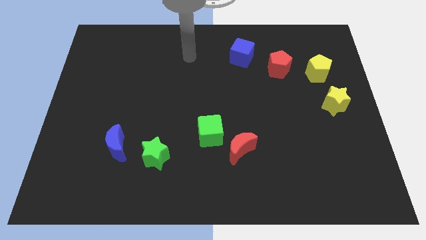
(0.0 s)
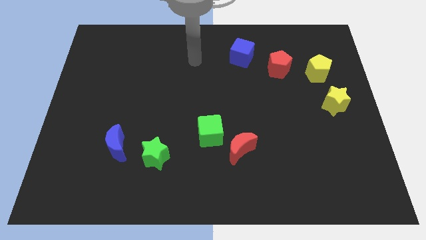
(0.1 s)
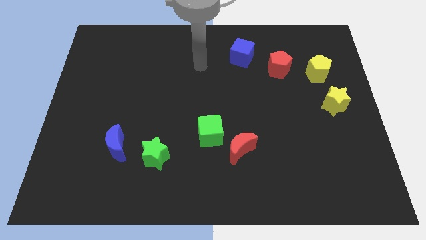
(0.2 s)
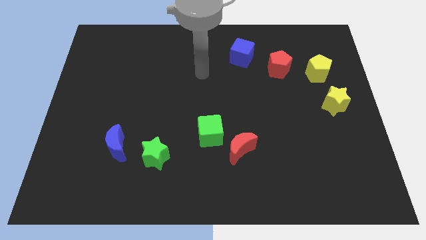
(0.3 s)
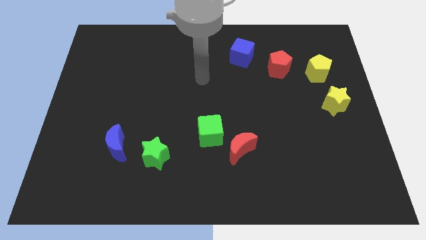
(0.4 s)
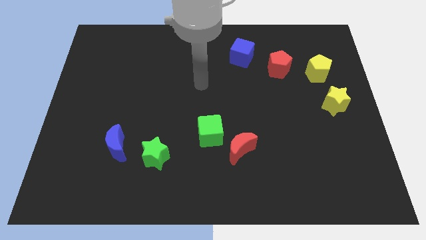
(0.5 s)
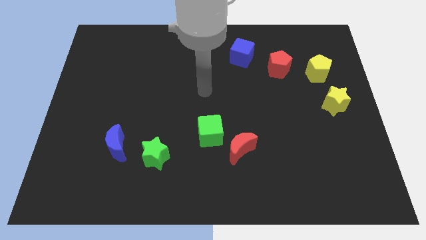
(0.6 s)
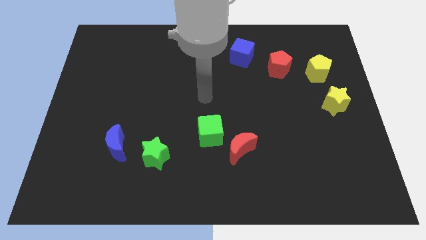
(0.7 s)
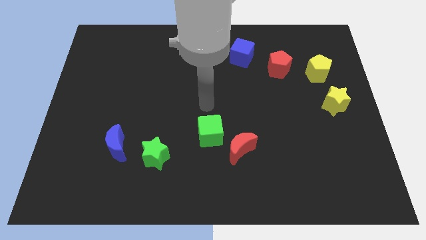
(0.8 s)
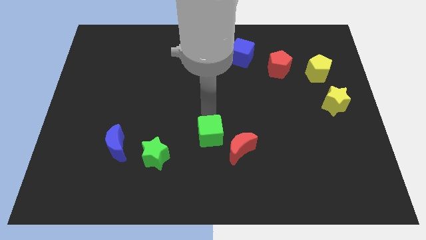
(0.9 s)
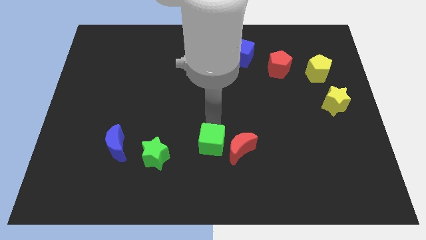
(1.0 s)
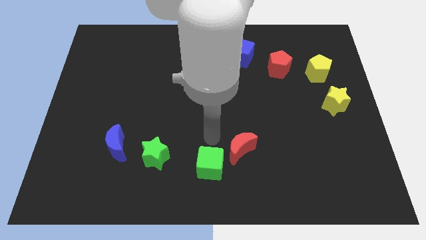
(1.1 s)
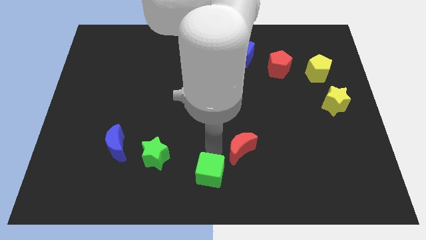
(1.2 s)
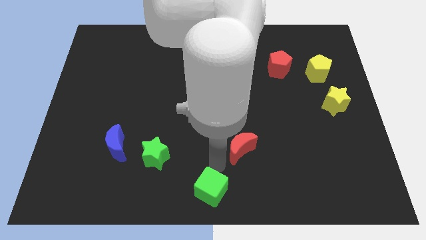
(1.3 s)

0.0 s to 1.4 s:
move the red moon away from the green cube

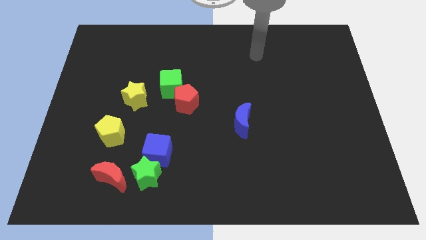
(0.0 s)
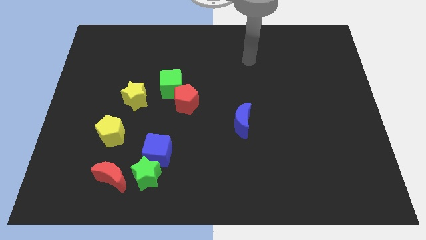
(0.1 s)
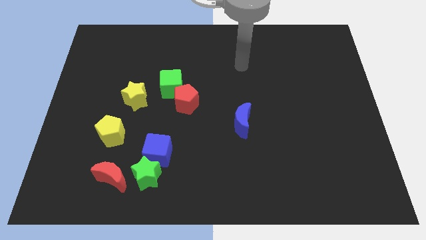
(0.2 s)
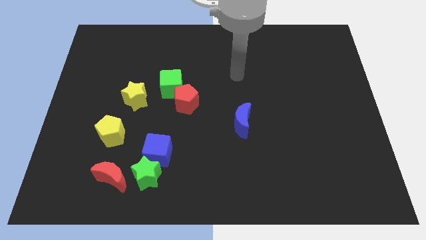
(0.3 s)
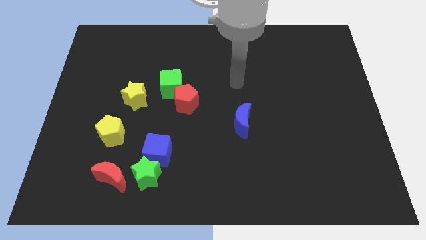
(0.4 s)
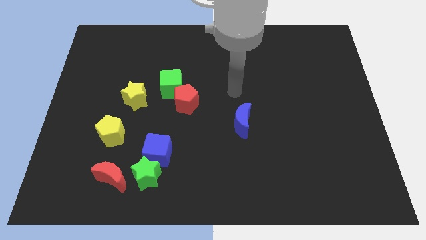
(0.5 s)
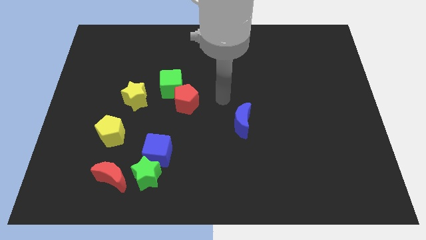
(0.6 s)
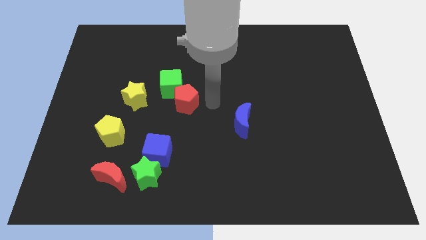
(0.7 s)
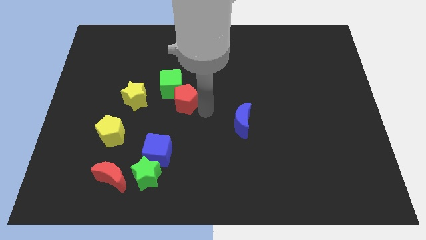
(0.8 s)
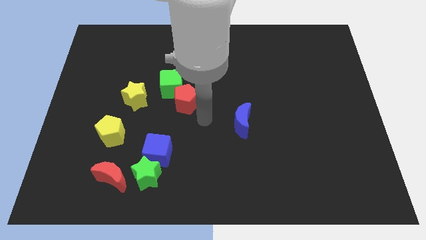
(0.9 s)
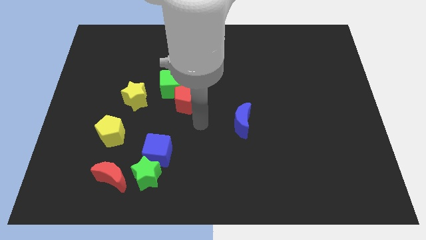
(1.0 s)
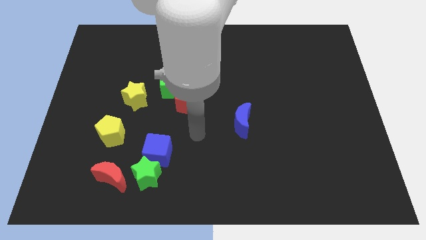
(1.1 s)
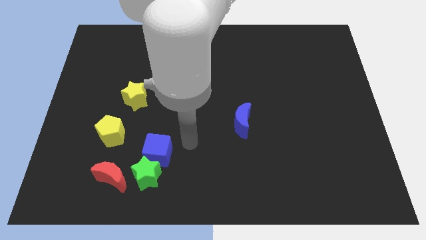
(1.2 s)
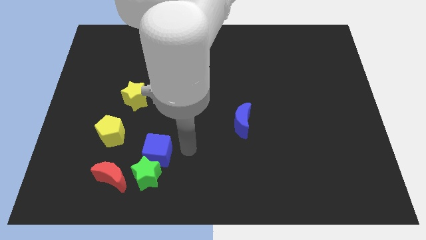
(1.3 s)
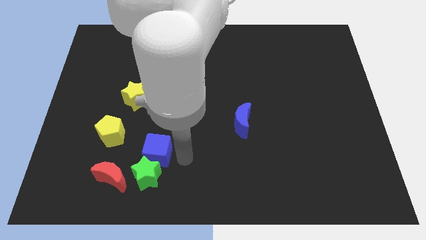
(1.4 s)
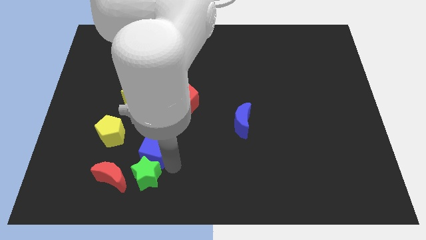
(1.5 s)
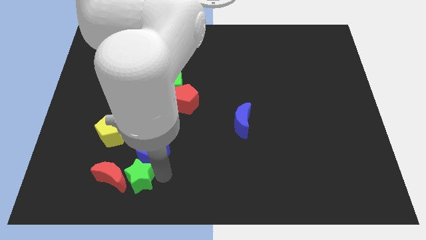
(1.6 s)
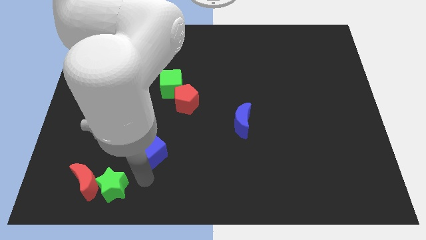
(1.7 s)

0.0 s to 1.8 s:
move the blue cube away from the green star

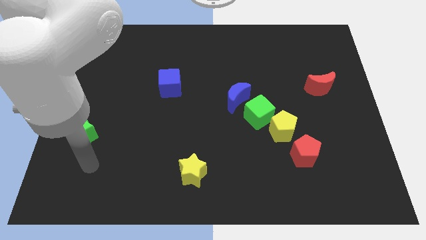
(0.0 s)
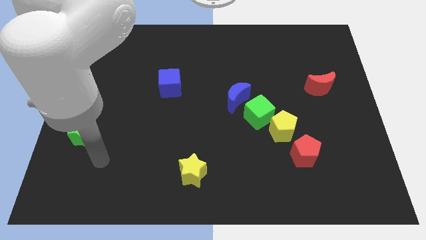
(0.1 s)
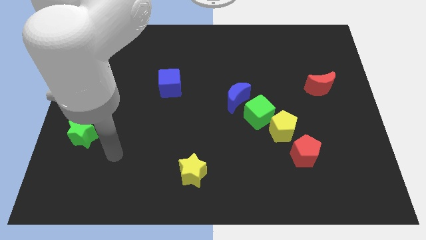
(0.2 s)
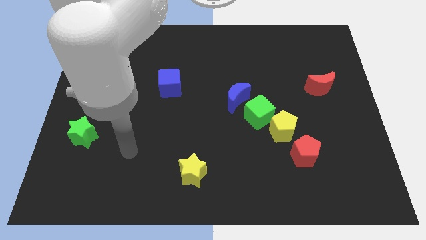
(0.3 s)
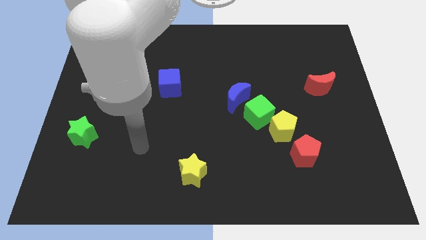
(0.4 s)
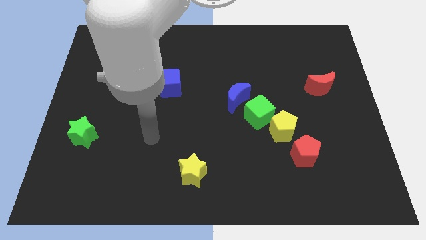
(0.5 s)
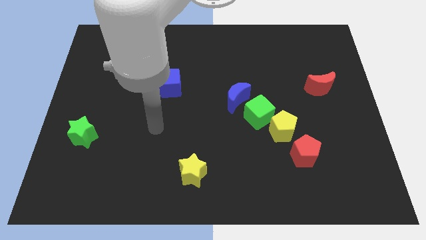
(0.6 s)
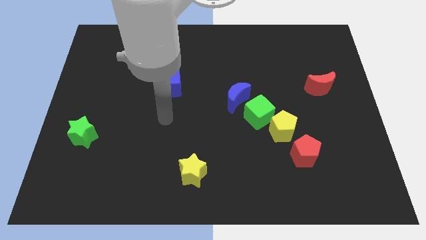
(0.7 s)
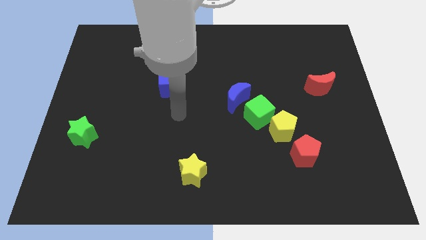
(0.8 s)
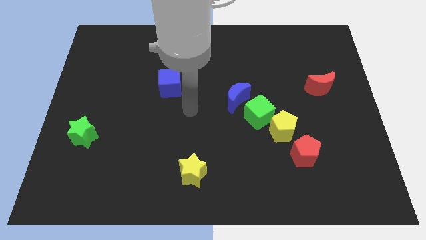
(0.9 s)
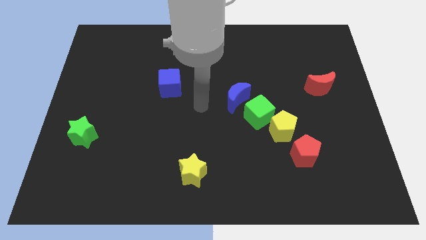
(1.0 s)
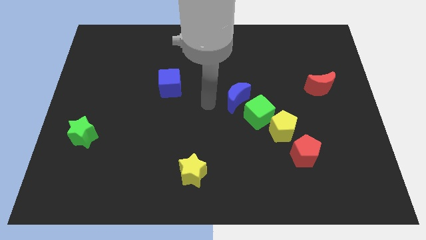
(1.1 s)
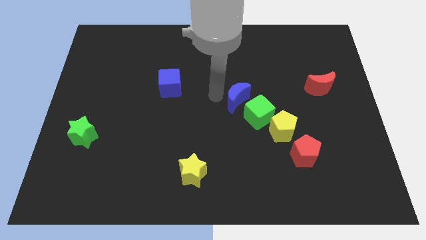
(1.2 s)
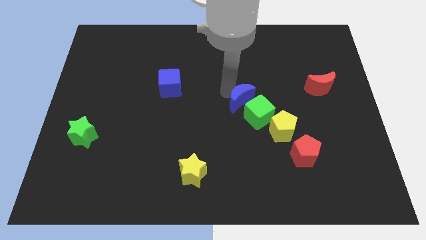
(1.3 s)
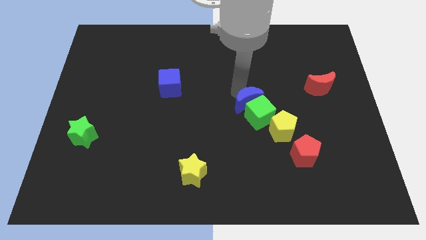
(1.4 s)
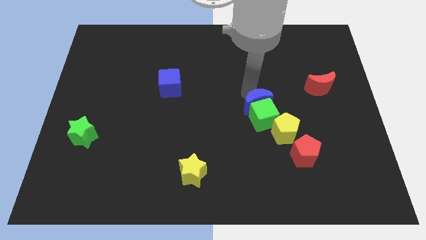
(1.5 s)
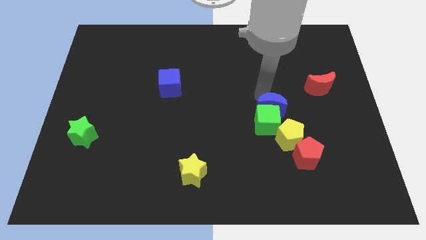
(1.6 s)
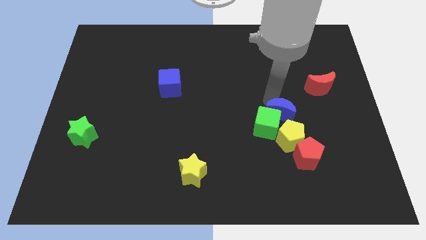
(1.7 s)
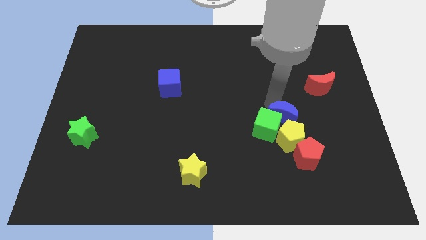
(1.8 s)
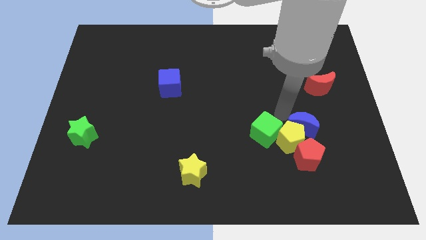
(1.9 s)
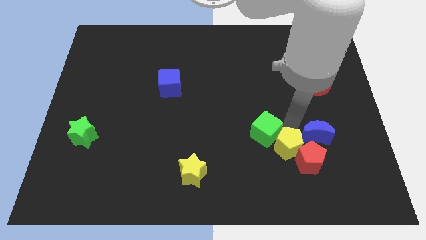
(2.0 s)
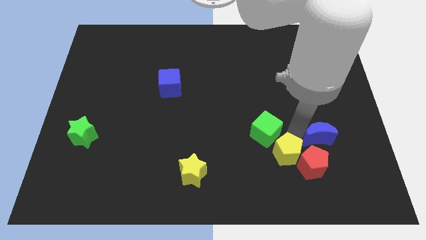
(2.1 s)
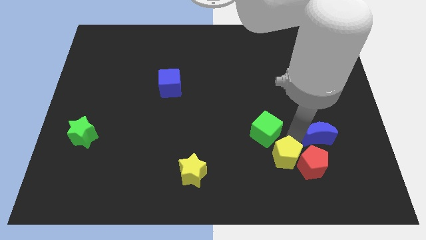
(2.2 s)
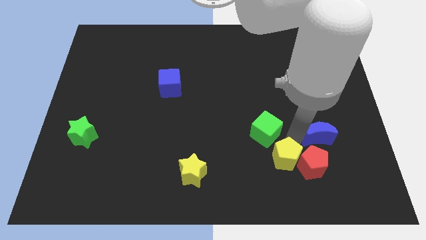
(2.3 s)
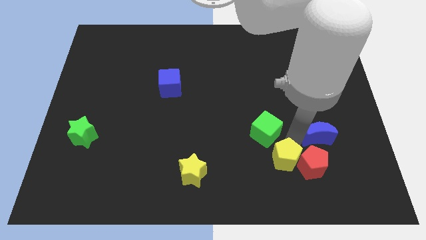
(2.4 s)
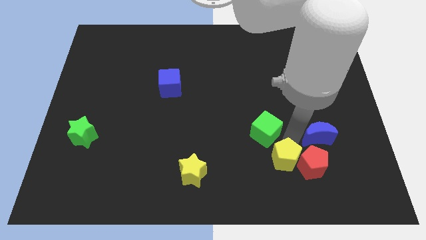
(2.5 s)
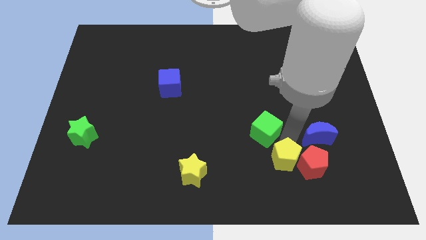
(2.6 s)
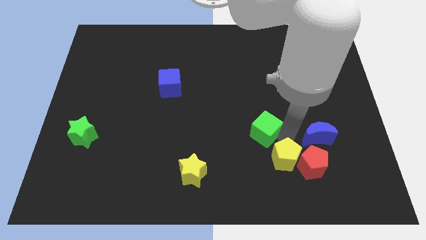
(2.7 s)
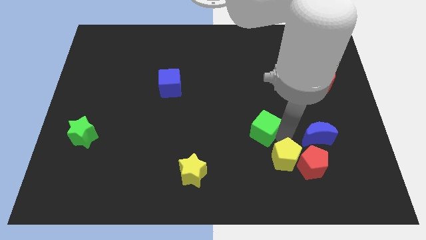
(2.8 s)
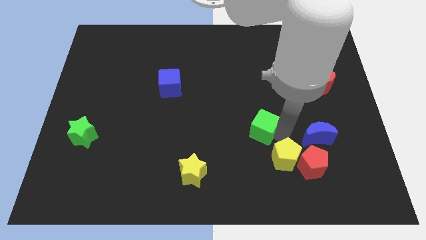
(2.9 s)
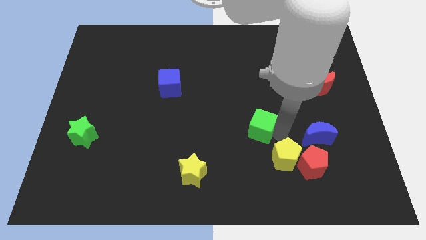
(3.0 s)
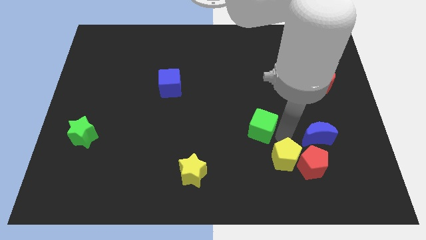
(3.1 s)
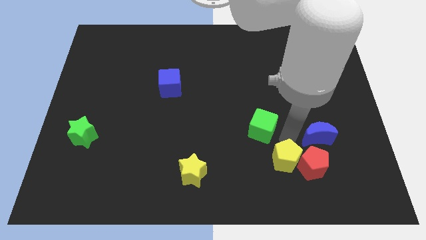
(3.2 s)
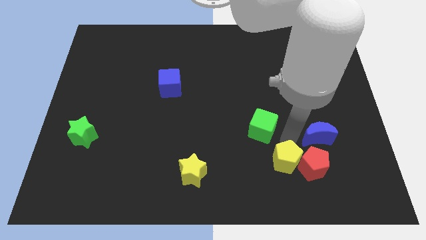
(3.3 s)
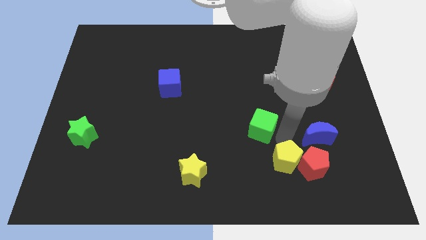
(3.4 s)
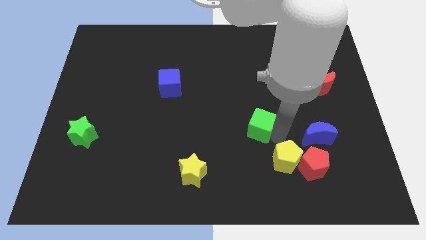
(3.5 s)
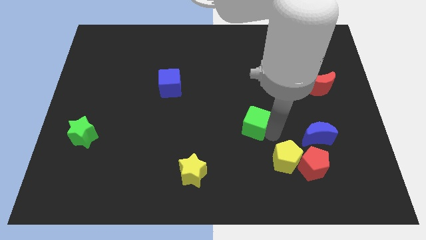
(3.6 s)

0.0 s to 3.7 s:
move the green cube away from the yellow pentagon and blue moon

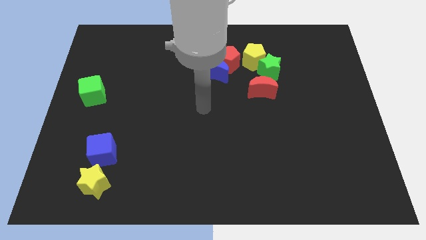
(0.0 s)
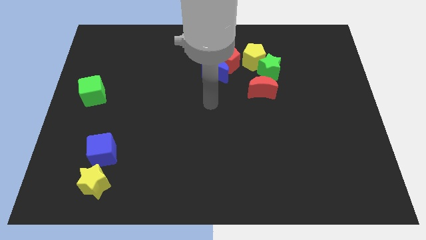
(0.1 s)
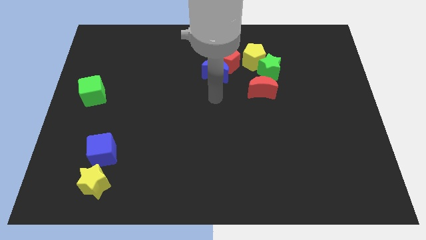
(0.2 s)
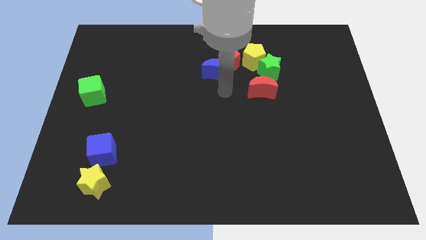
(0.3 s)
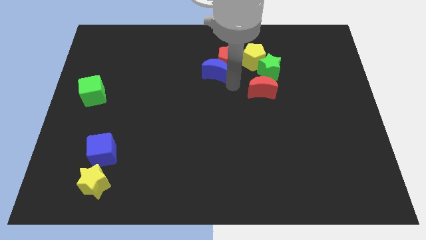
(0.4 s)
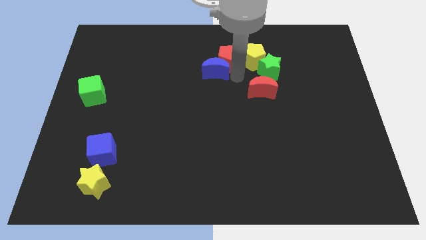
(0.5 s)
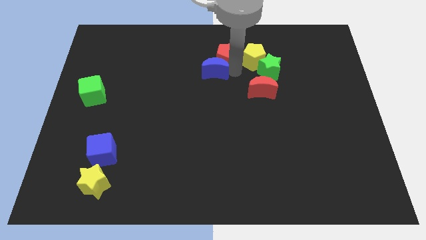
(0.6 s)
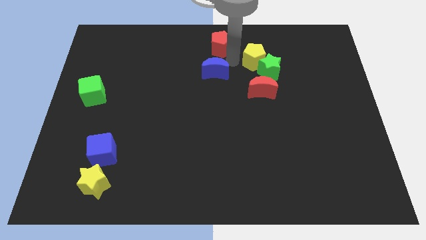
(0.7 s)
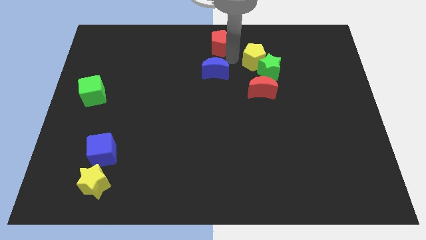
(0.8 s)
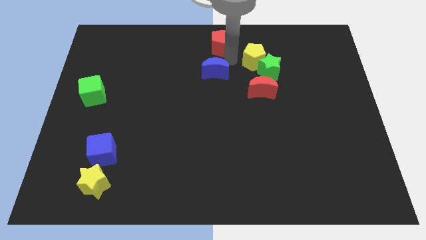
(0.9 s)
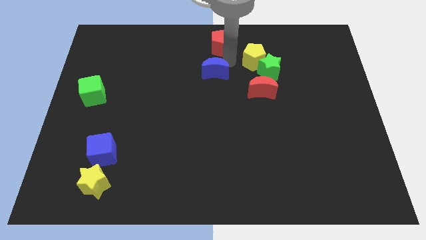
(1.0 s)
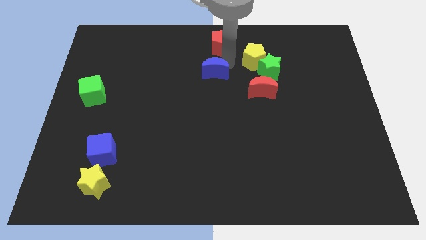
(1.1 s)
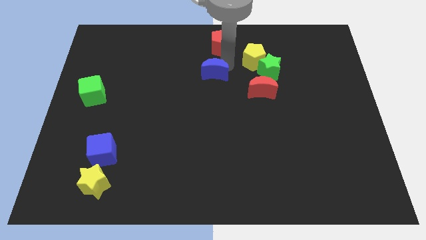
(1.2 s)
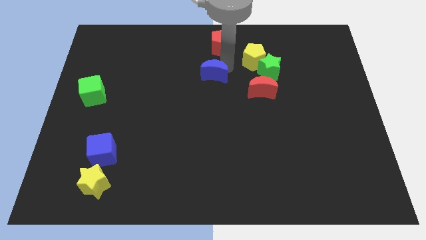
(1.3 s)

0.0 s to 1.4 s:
pull the blue moon apart from the red pentagon

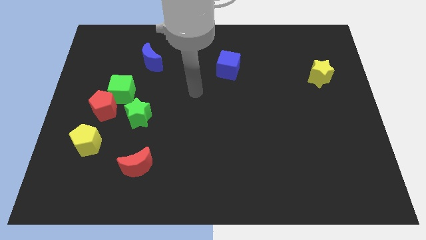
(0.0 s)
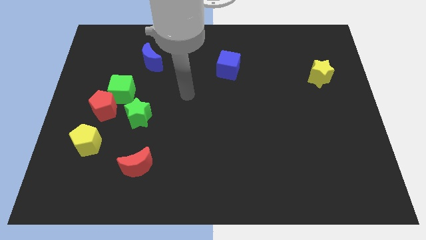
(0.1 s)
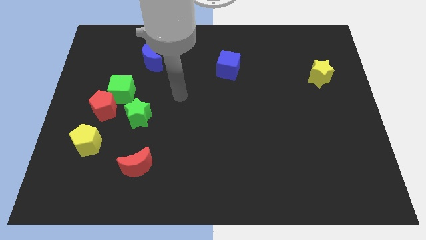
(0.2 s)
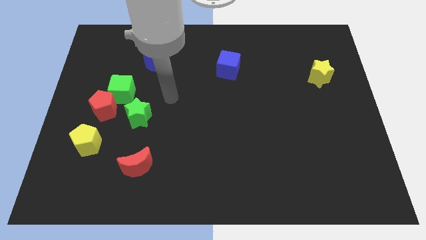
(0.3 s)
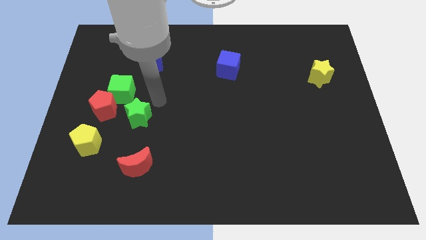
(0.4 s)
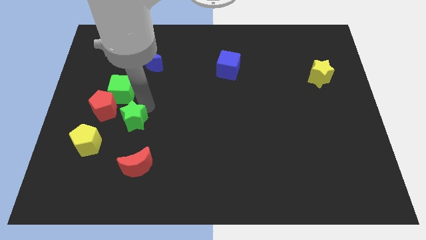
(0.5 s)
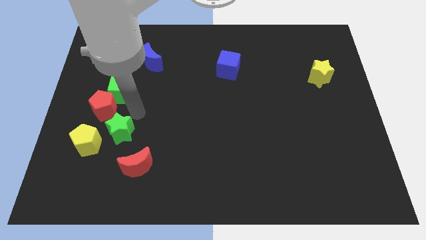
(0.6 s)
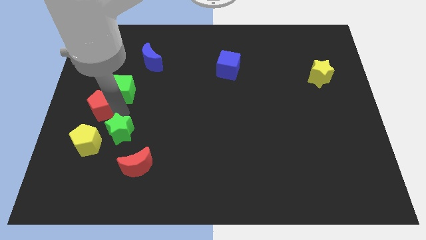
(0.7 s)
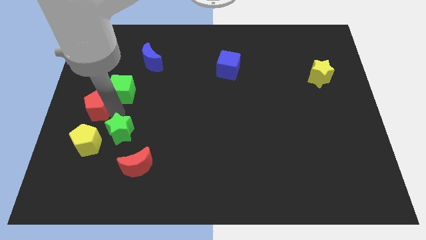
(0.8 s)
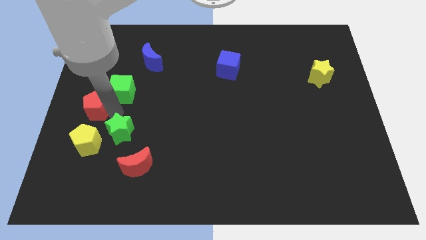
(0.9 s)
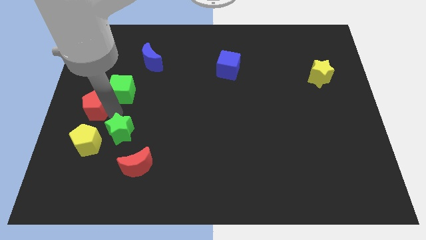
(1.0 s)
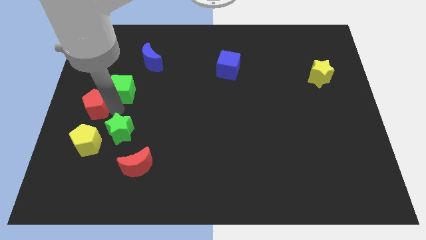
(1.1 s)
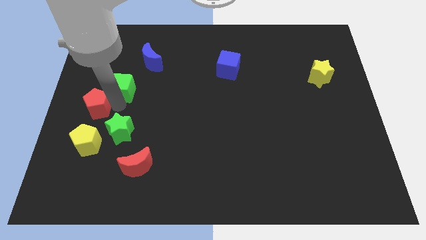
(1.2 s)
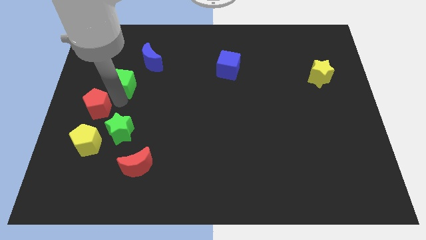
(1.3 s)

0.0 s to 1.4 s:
move the green cube away from the red pentagon and green star
